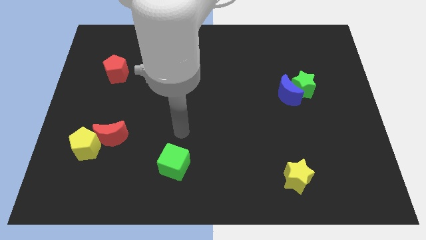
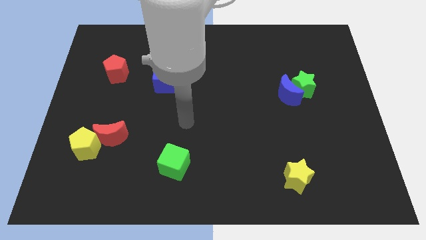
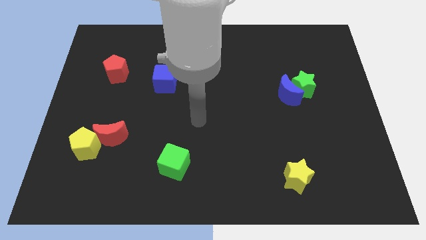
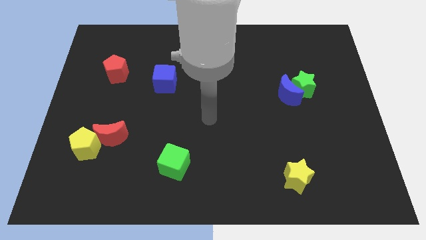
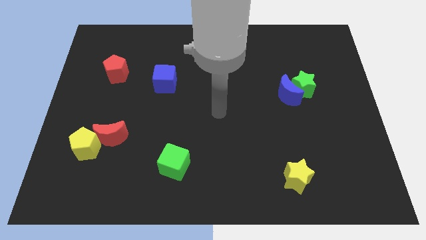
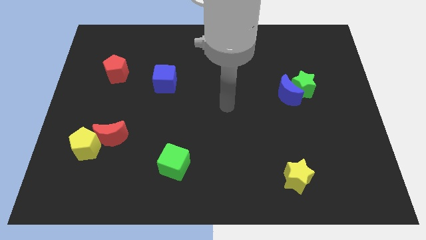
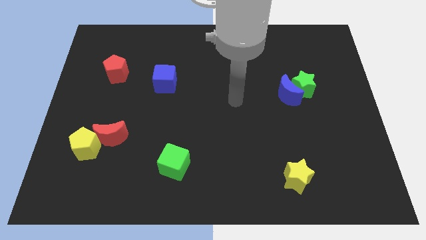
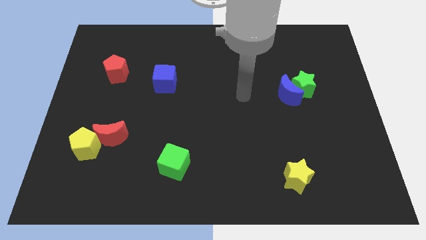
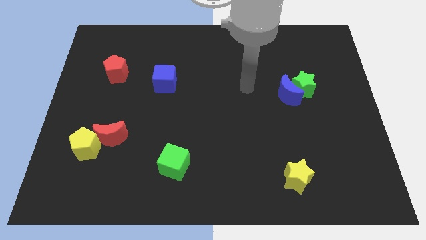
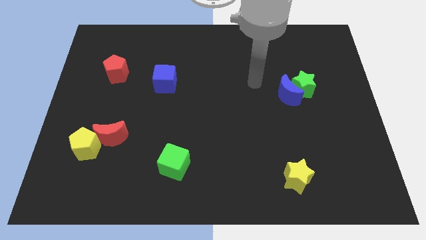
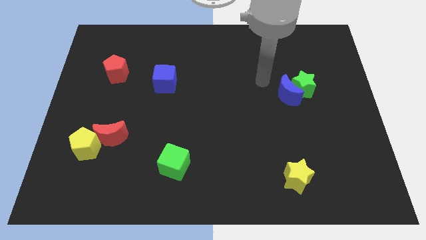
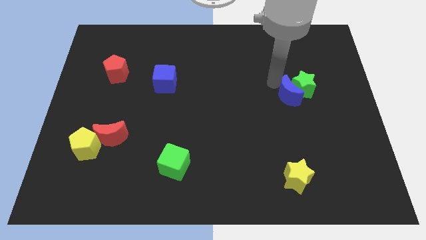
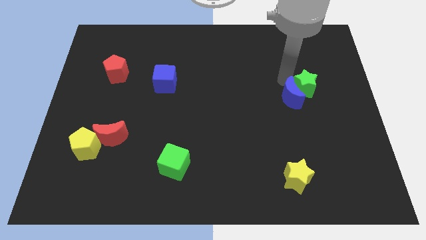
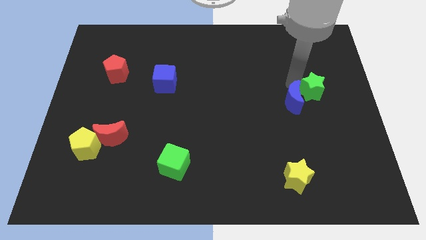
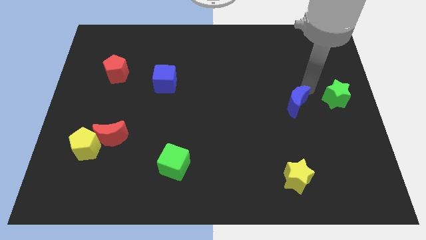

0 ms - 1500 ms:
separate the blue moon from the green star

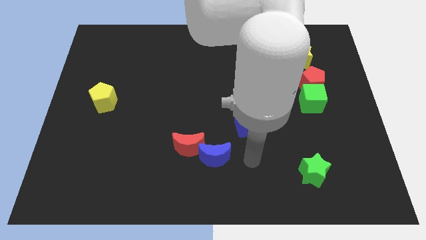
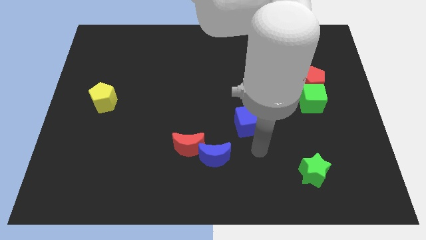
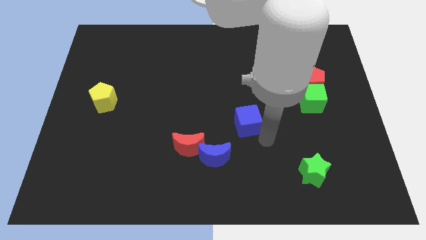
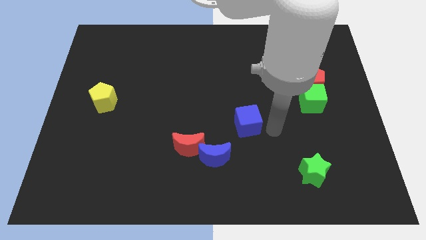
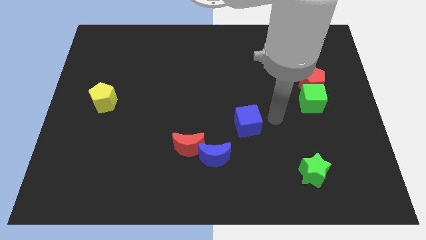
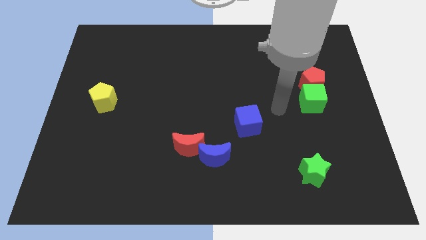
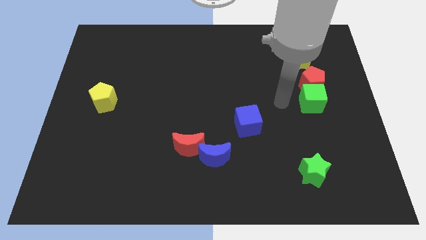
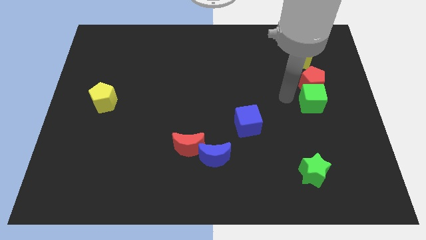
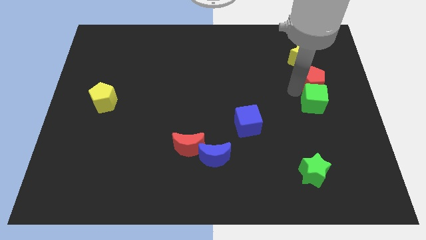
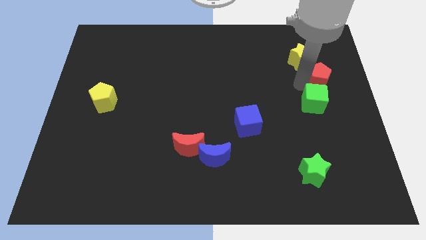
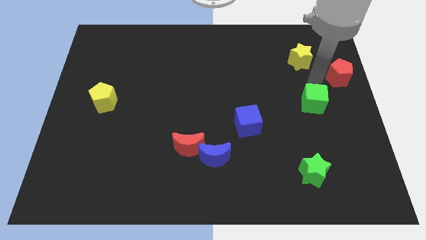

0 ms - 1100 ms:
move the green cube away from the red pentagon

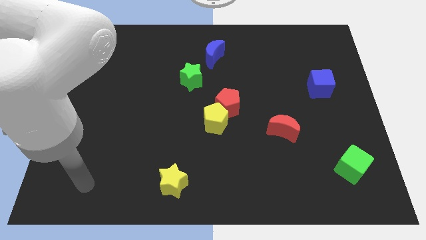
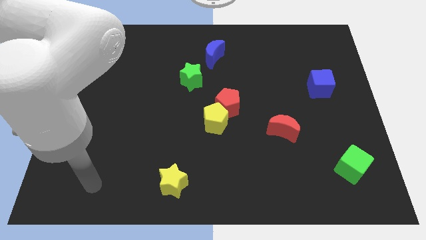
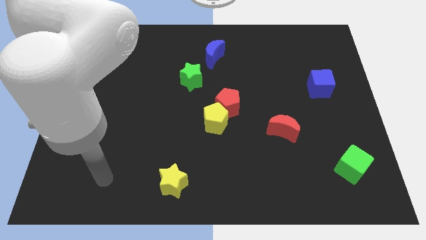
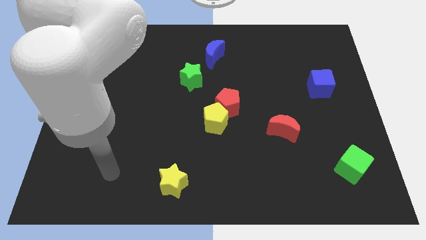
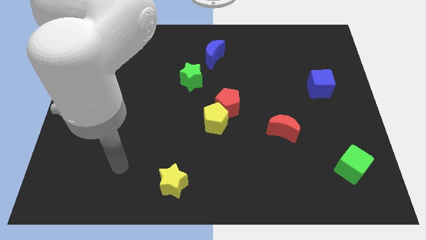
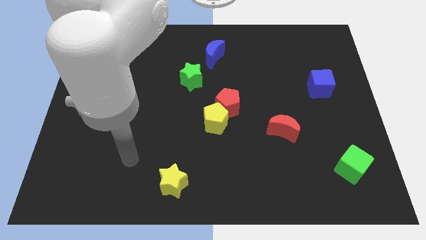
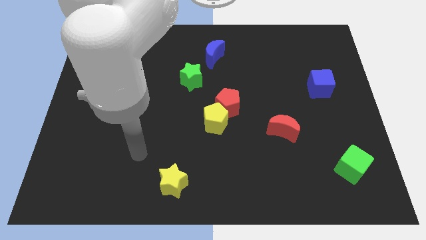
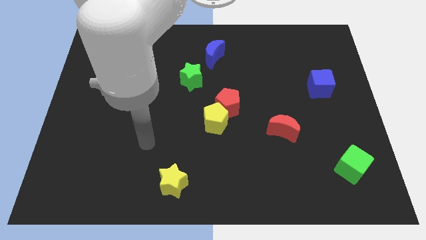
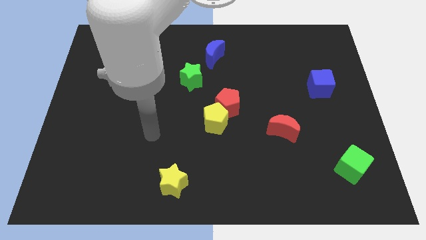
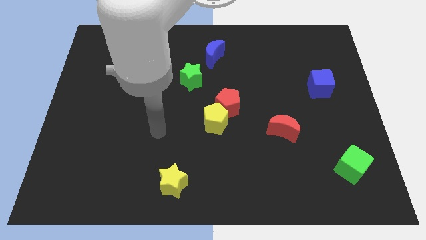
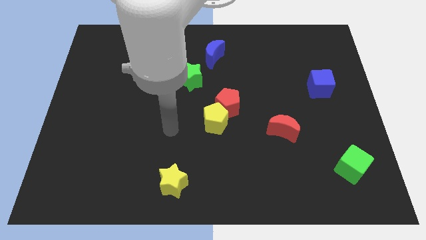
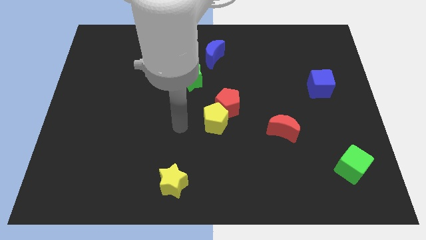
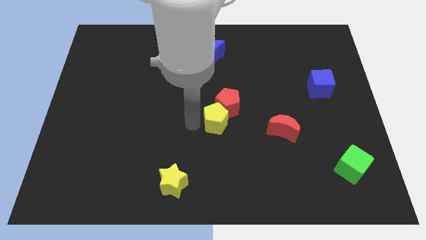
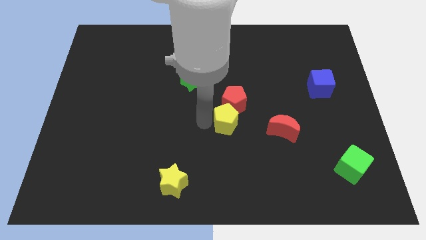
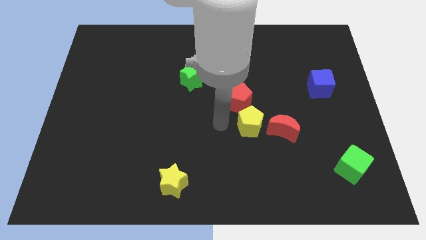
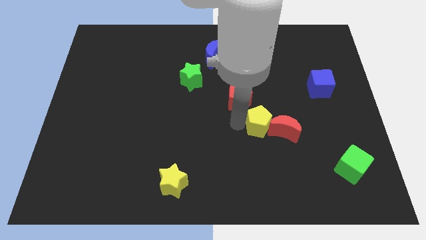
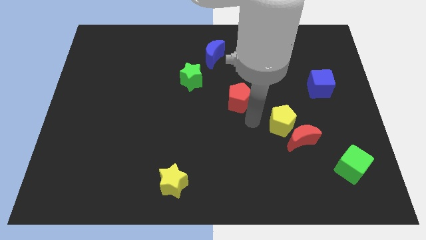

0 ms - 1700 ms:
separate the red pentagon from the yellow pentagon

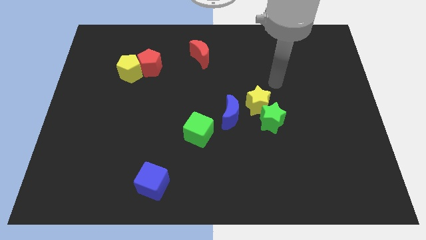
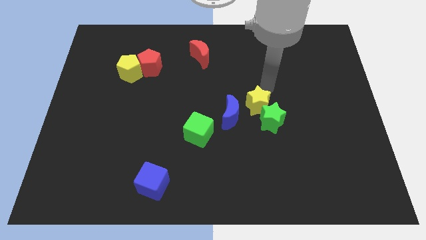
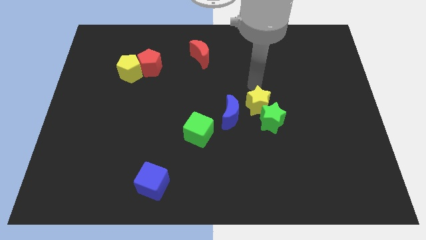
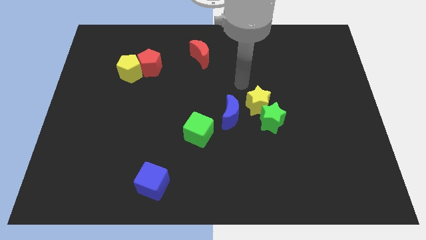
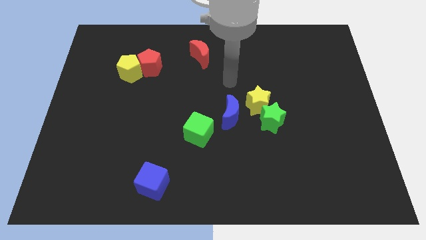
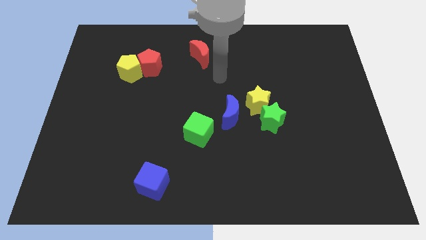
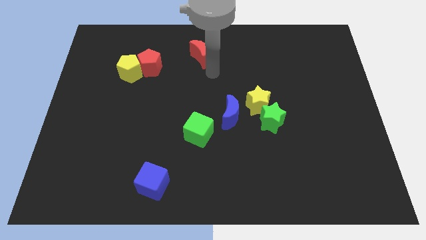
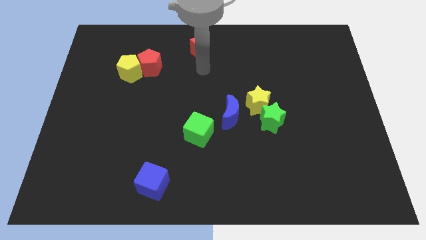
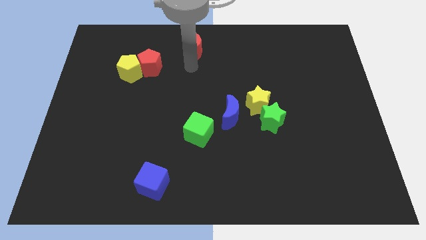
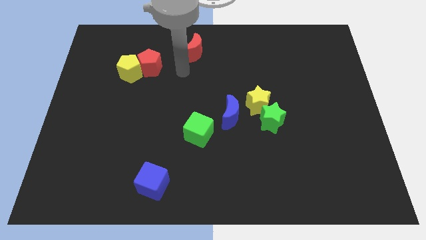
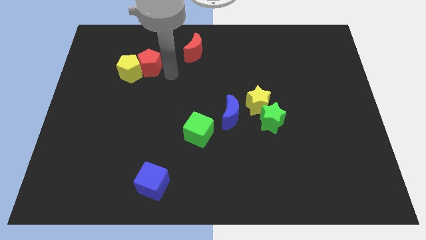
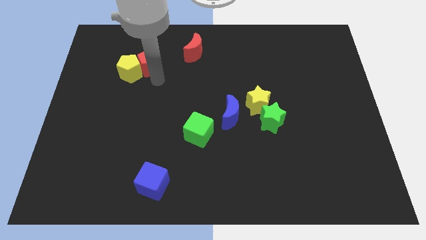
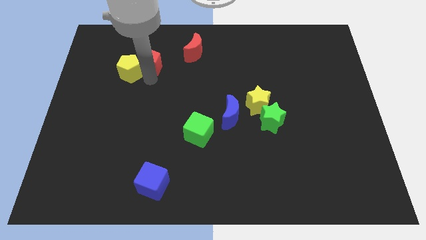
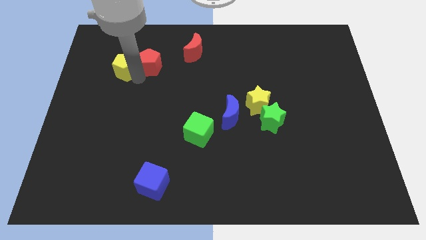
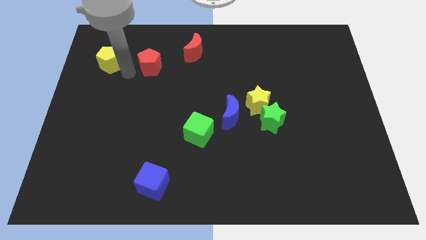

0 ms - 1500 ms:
pull the red pentagon apart from the yellow pentagon

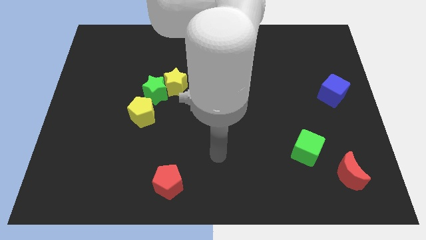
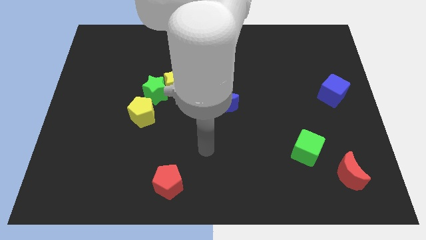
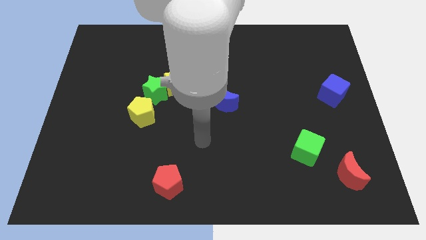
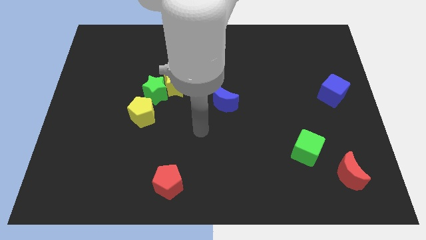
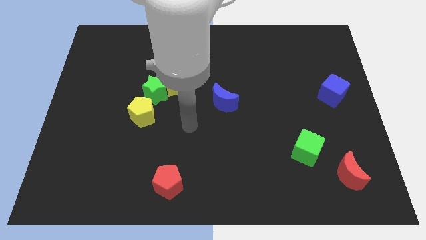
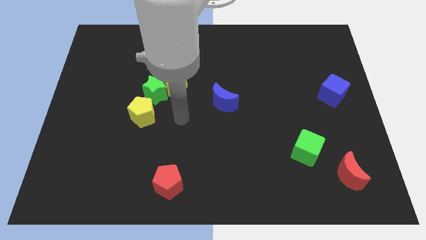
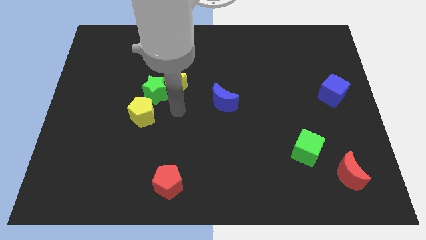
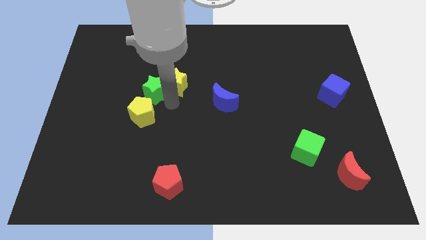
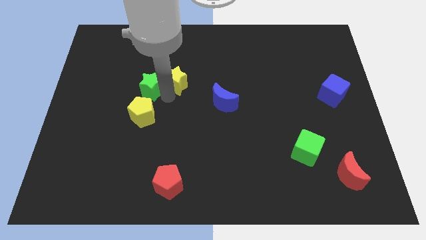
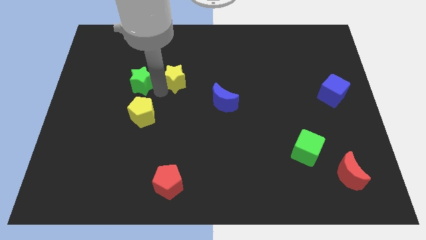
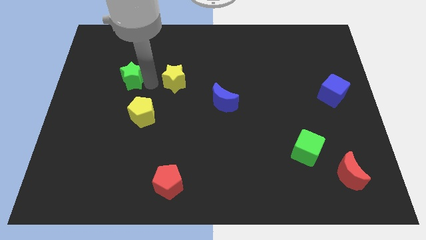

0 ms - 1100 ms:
move the yellow star away from the green star

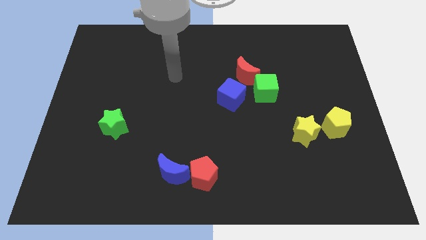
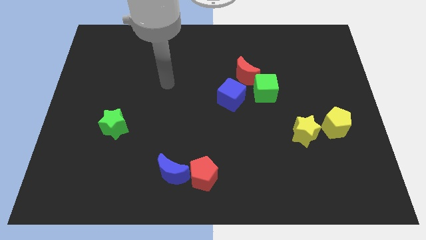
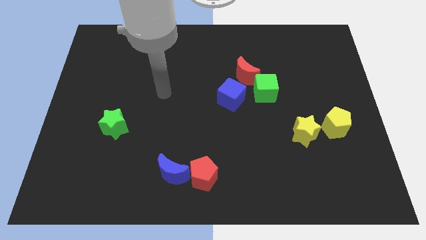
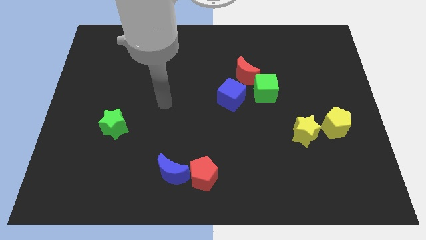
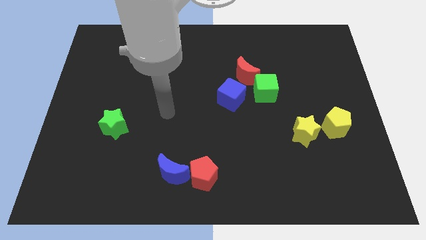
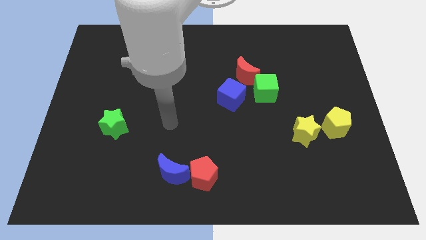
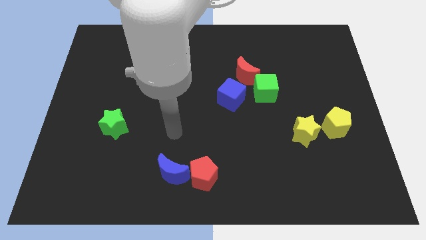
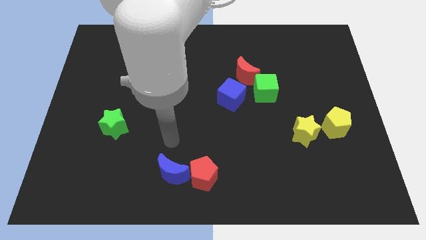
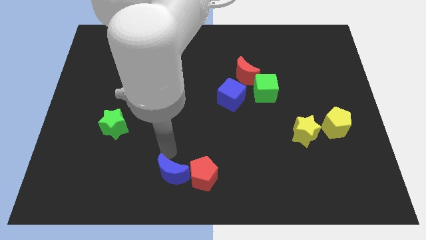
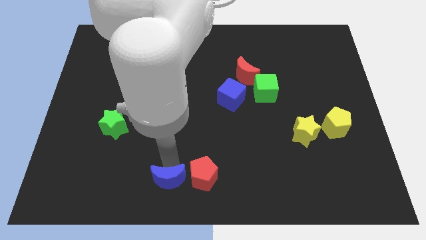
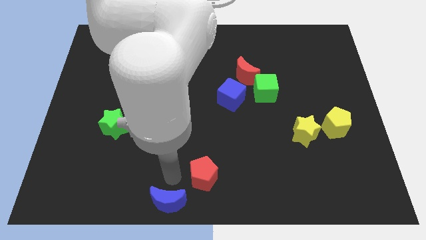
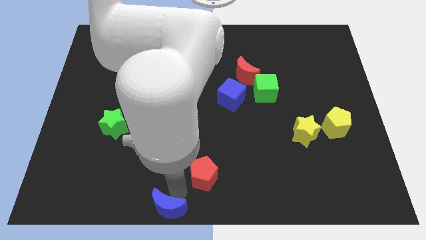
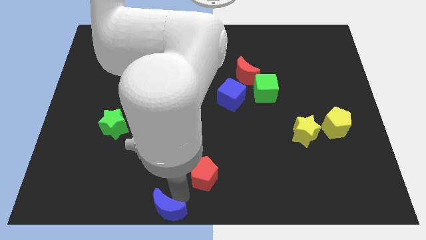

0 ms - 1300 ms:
move the red pentagon away from the blue moon

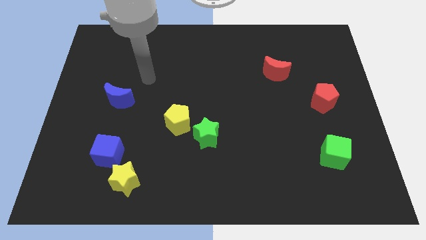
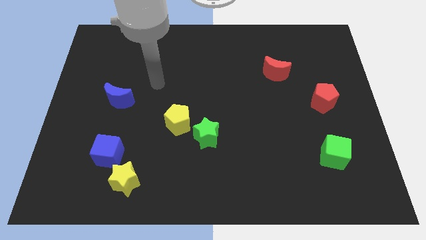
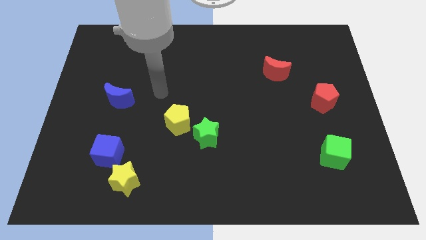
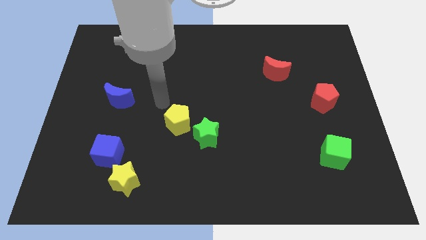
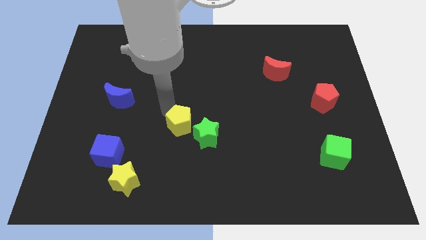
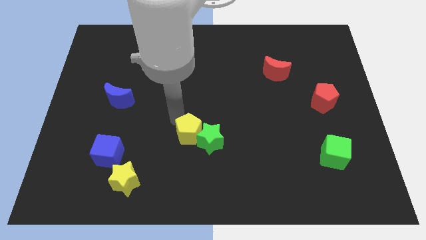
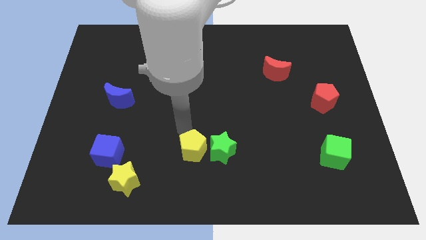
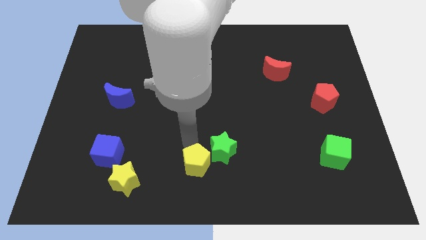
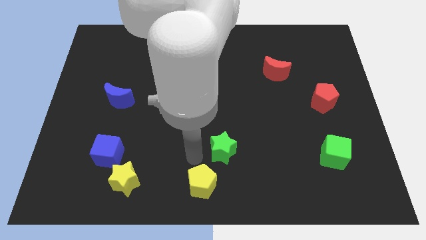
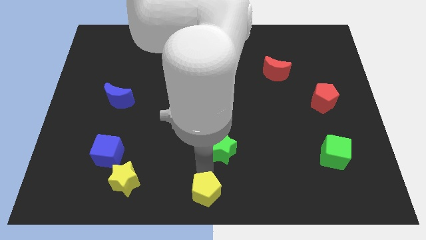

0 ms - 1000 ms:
move the green star away from the yellow pentagon
